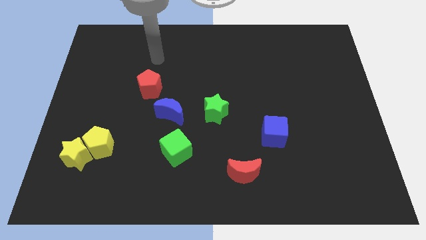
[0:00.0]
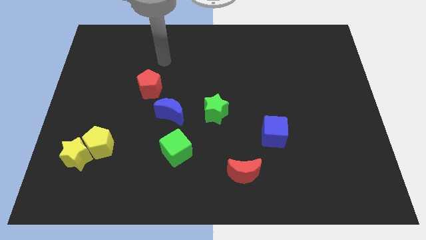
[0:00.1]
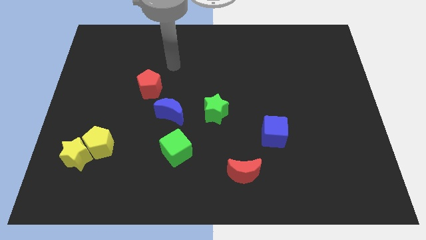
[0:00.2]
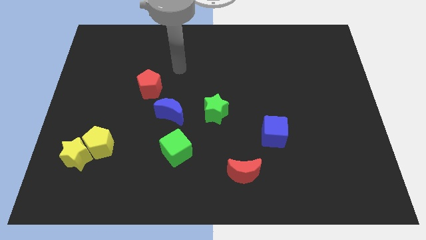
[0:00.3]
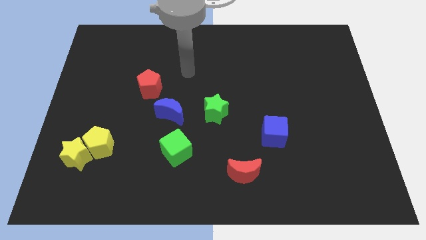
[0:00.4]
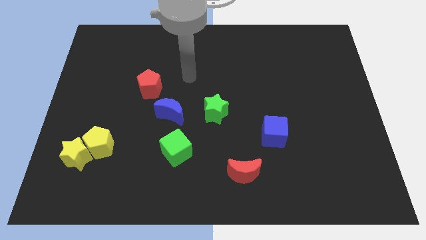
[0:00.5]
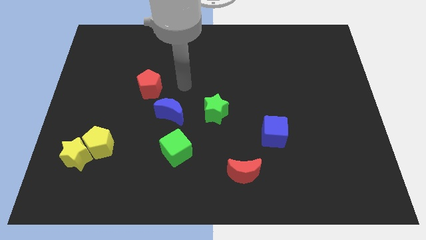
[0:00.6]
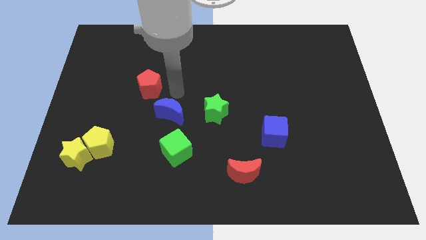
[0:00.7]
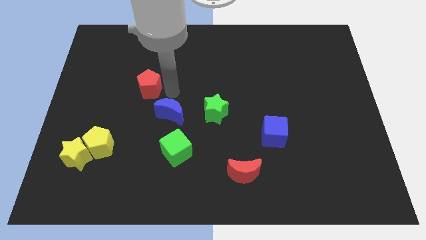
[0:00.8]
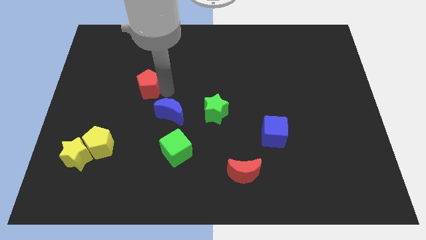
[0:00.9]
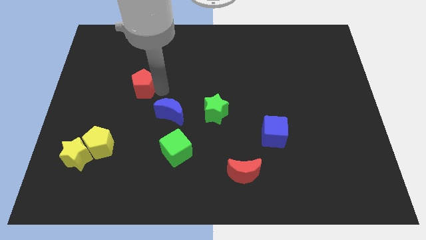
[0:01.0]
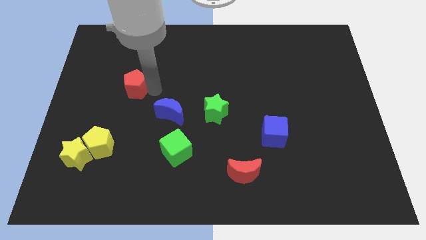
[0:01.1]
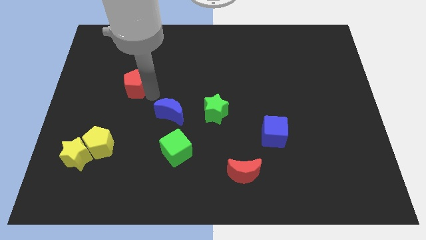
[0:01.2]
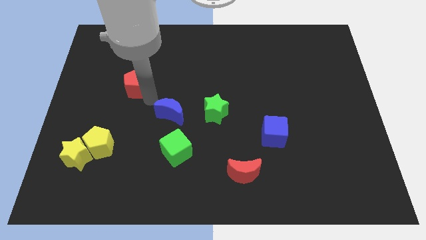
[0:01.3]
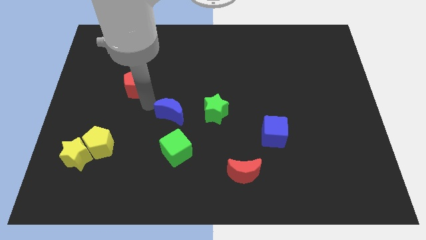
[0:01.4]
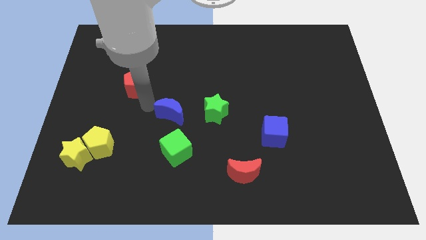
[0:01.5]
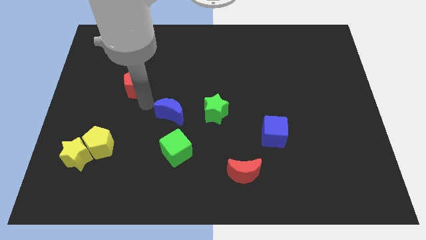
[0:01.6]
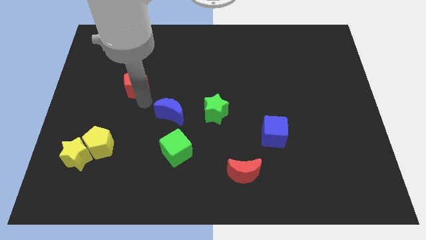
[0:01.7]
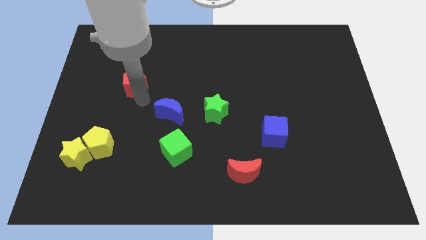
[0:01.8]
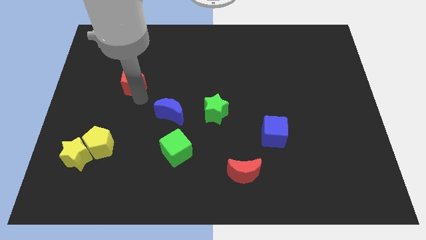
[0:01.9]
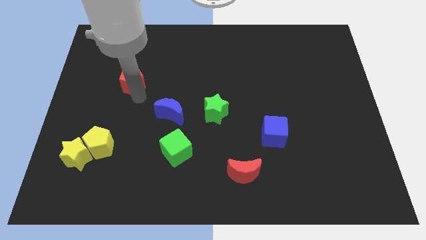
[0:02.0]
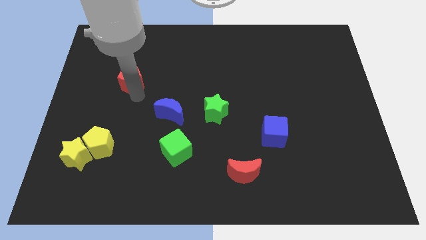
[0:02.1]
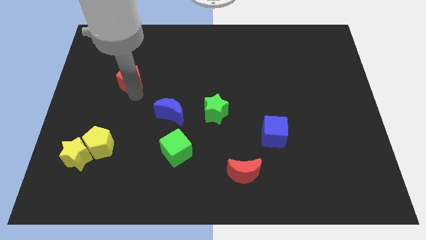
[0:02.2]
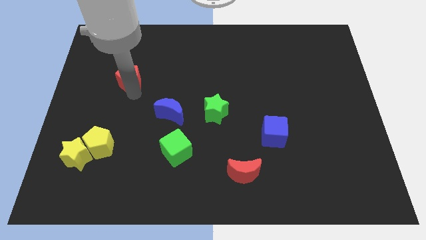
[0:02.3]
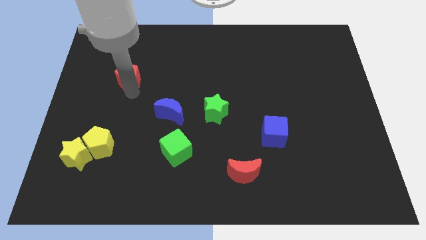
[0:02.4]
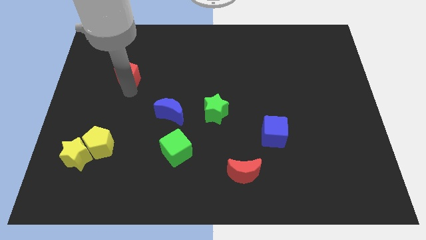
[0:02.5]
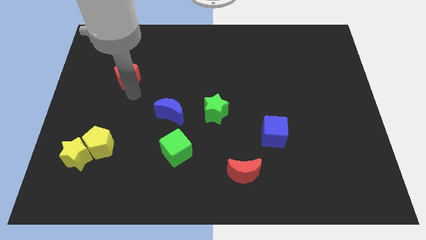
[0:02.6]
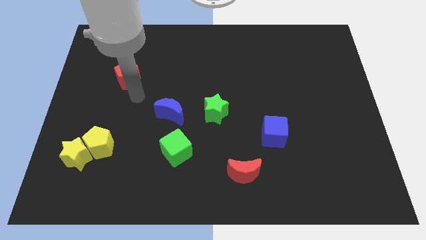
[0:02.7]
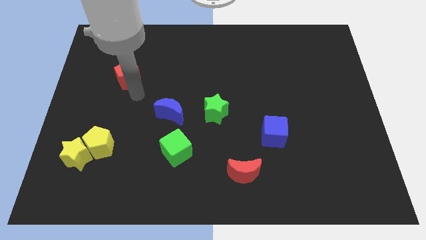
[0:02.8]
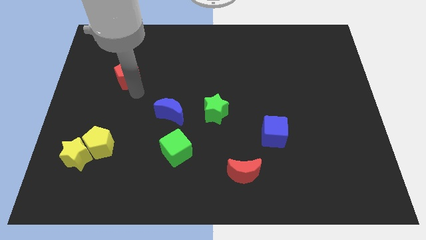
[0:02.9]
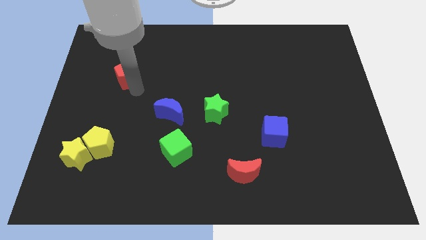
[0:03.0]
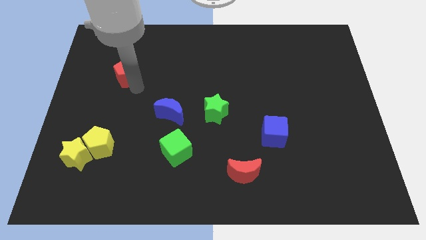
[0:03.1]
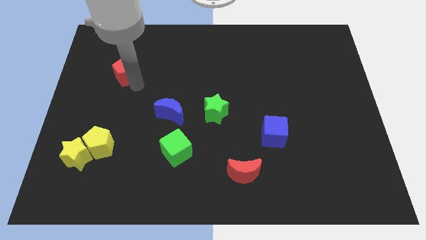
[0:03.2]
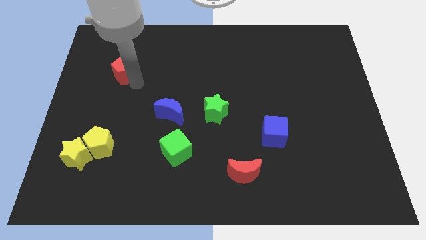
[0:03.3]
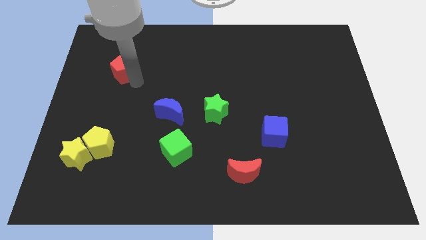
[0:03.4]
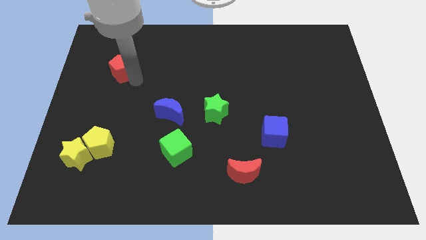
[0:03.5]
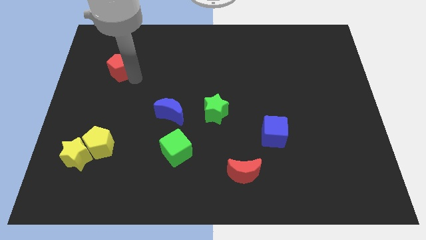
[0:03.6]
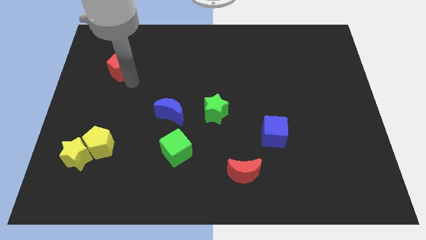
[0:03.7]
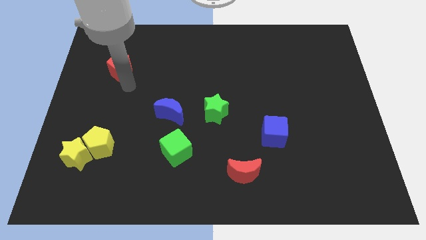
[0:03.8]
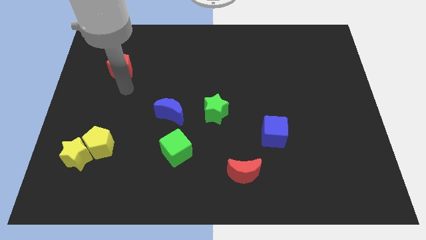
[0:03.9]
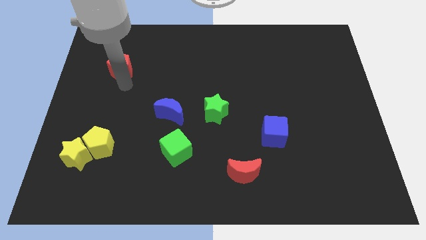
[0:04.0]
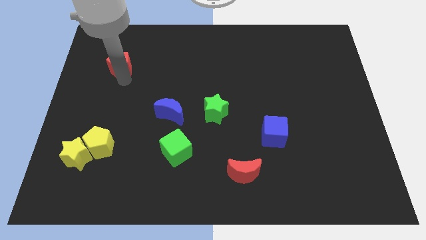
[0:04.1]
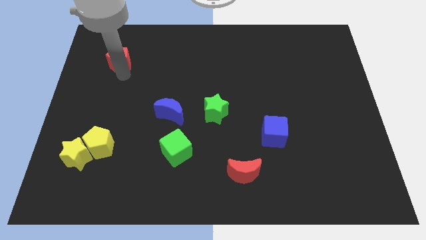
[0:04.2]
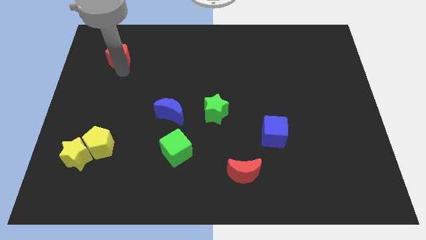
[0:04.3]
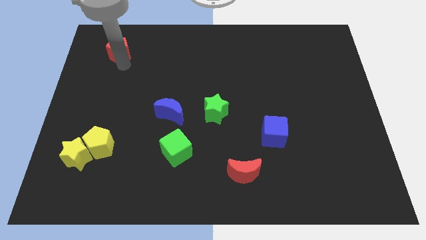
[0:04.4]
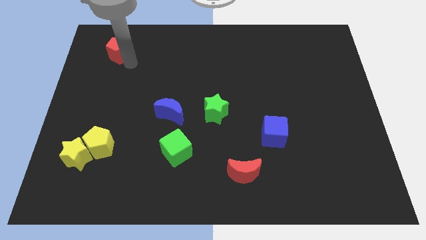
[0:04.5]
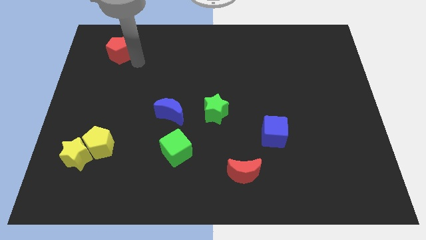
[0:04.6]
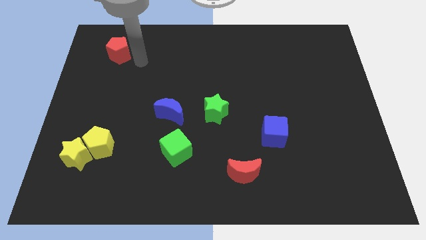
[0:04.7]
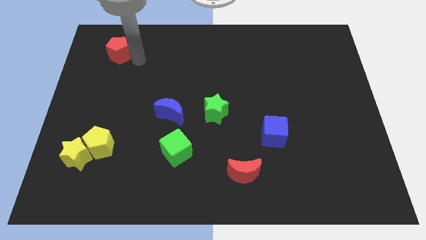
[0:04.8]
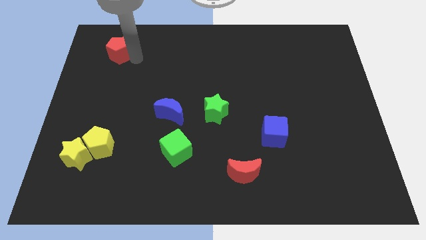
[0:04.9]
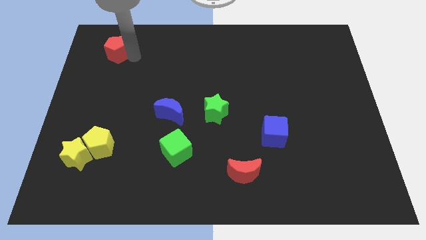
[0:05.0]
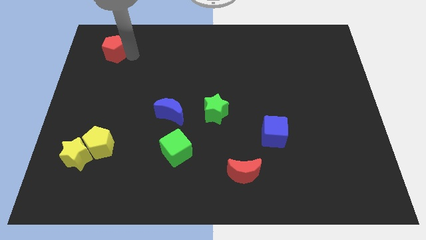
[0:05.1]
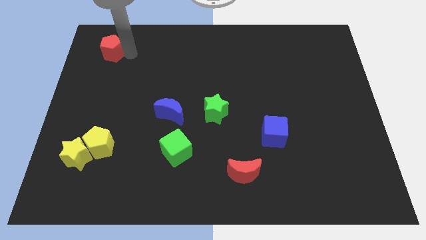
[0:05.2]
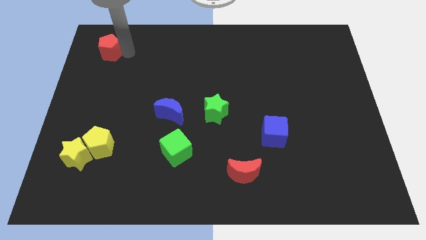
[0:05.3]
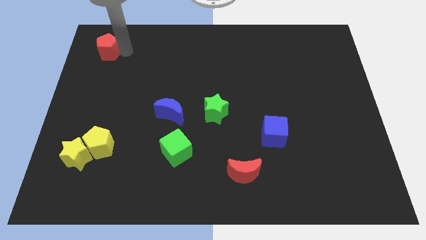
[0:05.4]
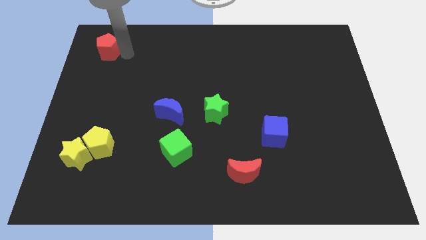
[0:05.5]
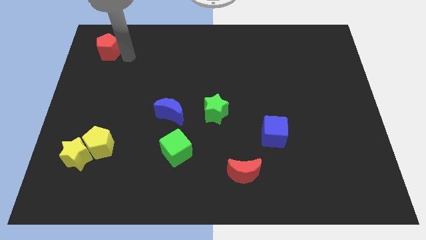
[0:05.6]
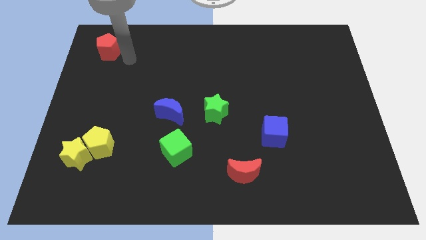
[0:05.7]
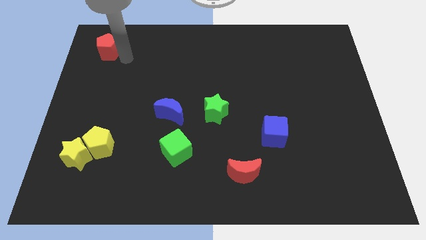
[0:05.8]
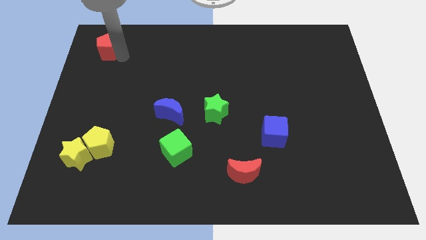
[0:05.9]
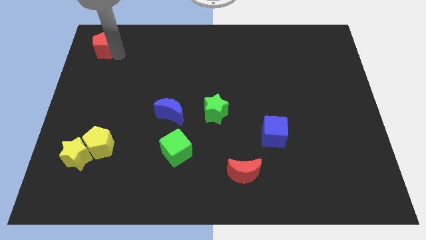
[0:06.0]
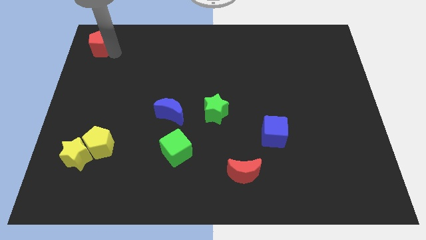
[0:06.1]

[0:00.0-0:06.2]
move the red pentagon to the top left

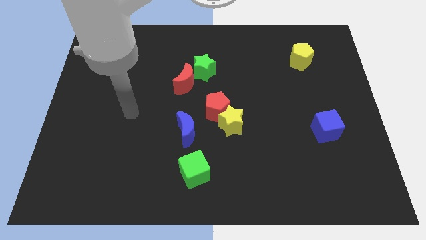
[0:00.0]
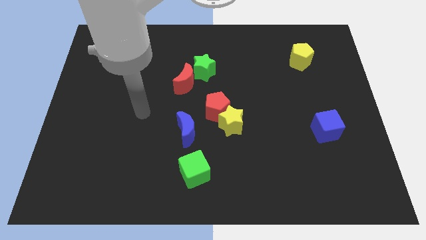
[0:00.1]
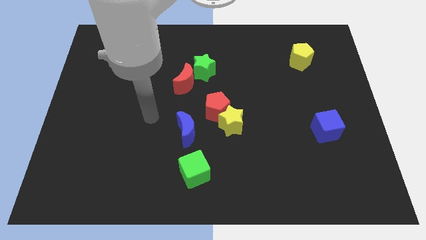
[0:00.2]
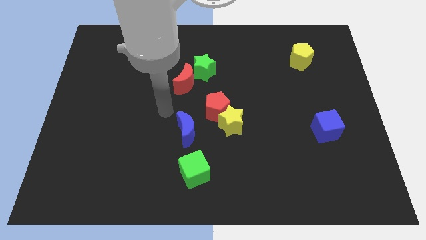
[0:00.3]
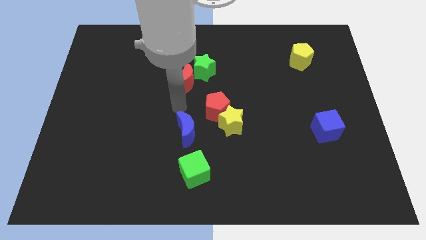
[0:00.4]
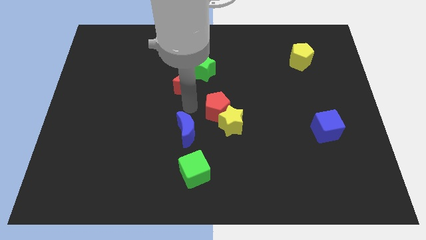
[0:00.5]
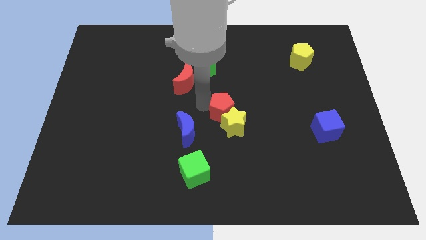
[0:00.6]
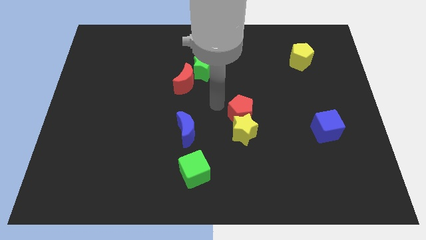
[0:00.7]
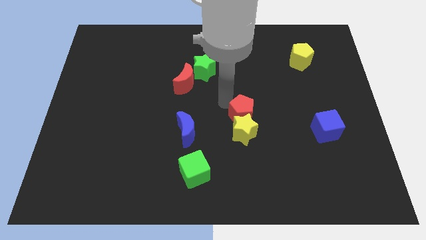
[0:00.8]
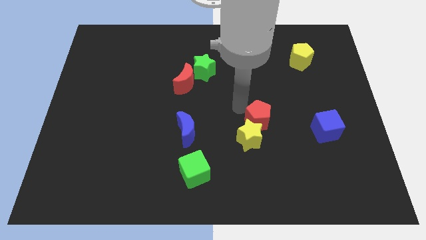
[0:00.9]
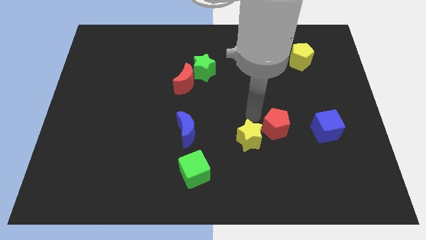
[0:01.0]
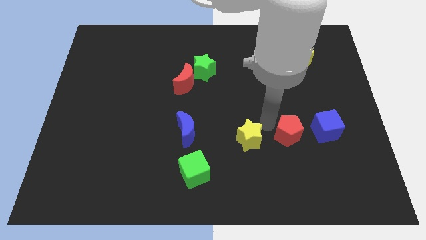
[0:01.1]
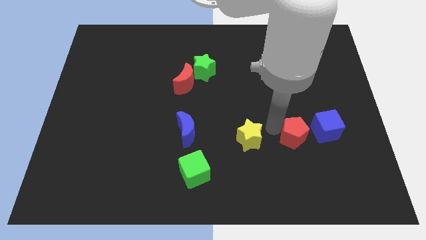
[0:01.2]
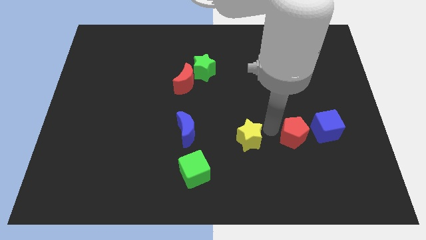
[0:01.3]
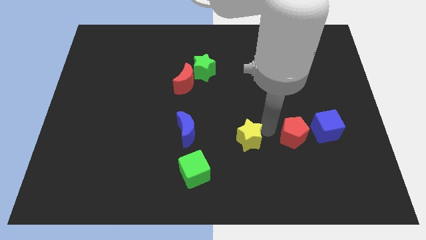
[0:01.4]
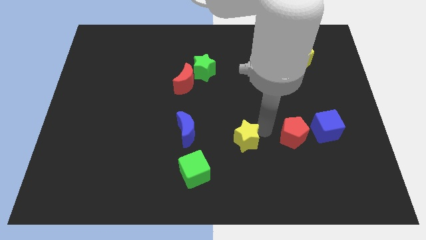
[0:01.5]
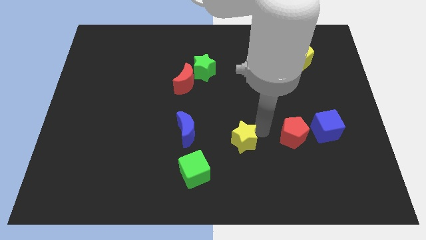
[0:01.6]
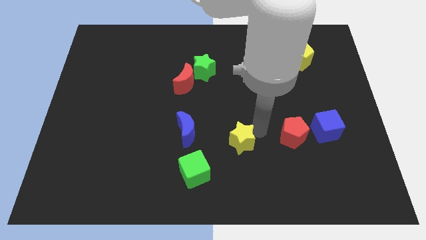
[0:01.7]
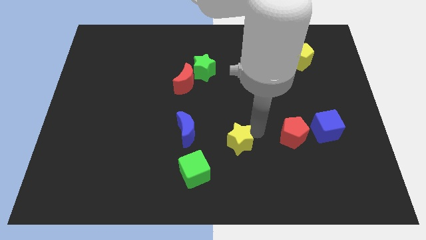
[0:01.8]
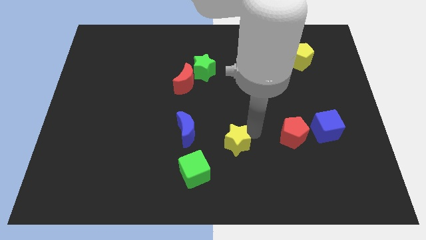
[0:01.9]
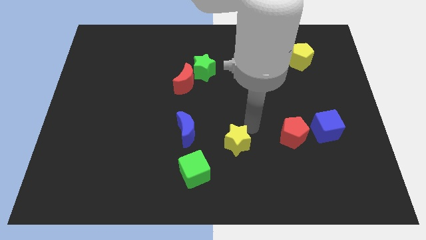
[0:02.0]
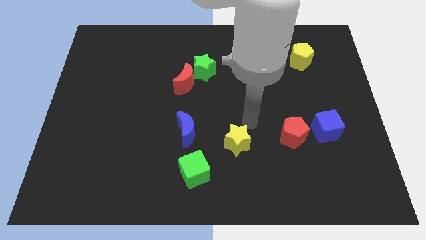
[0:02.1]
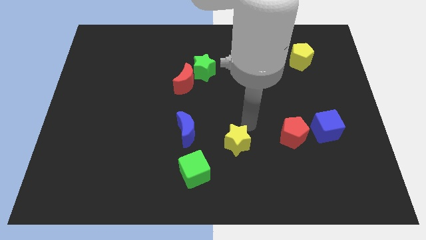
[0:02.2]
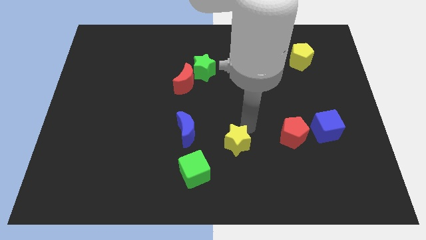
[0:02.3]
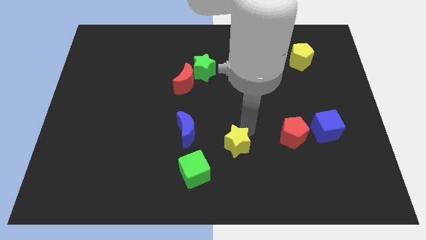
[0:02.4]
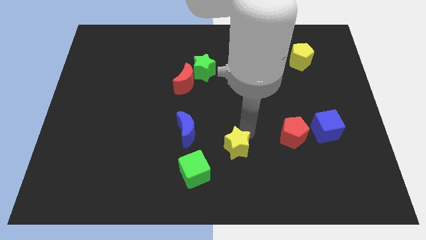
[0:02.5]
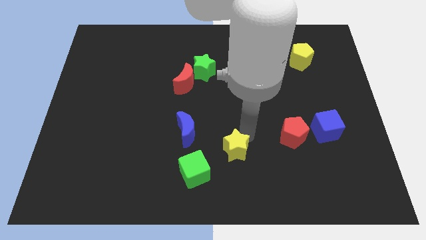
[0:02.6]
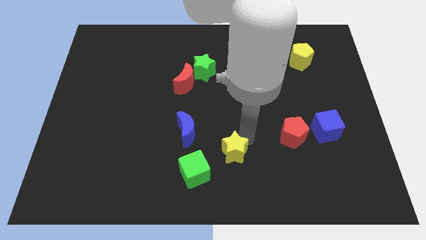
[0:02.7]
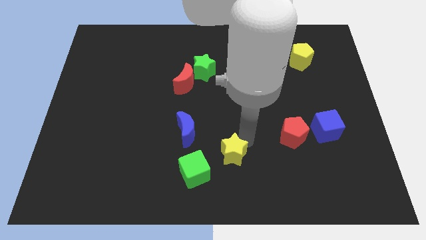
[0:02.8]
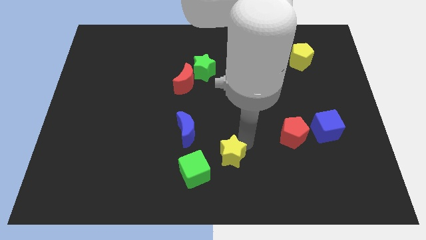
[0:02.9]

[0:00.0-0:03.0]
move the yellow star to the bottom side
